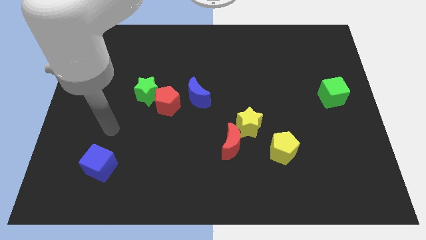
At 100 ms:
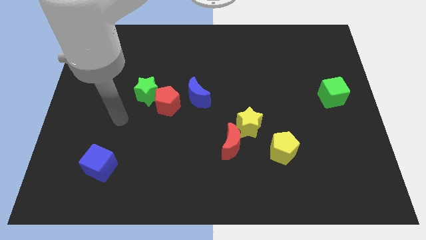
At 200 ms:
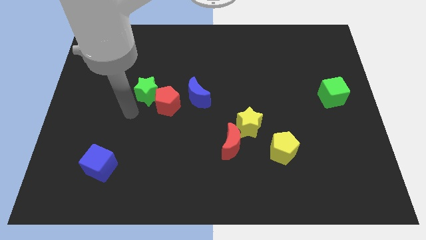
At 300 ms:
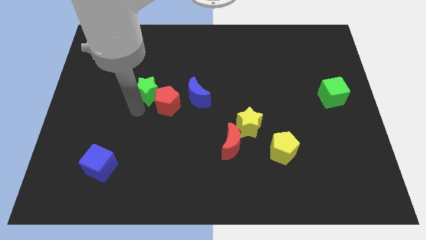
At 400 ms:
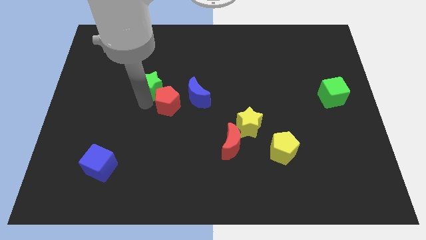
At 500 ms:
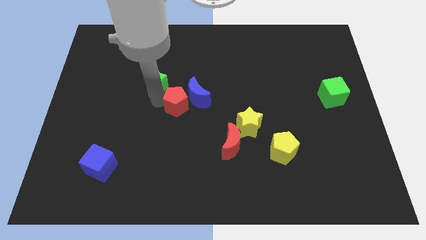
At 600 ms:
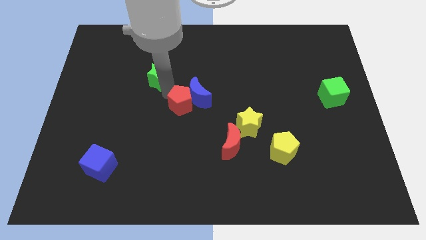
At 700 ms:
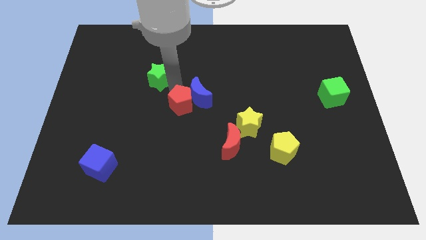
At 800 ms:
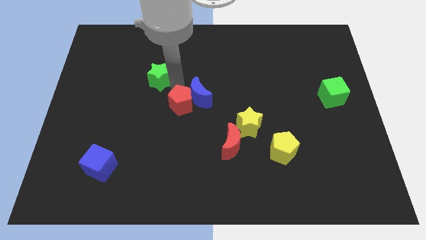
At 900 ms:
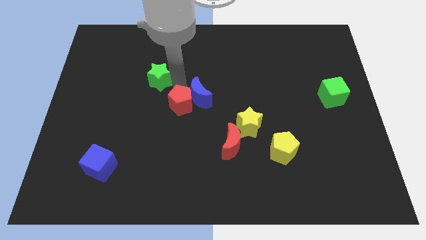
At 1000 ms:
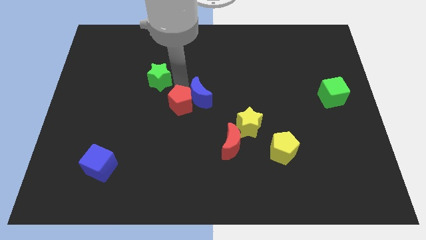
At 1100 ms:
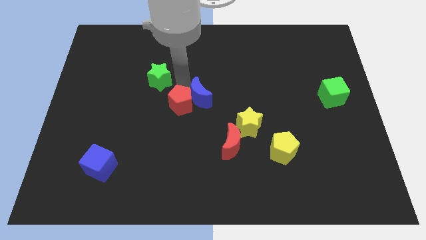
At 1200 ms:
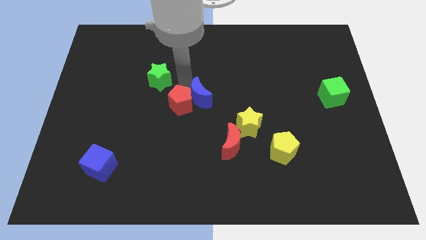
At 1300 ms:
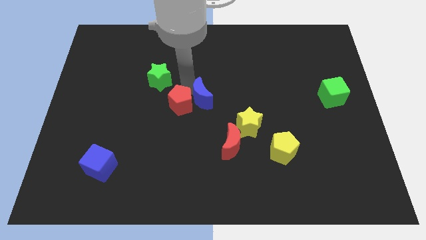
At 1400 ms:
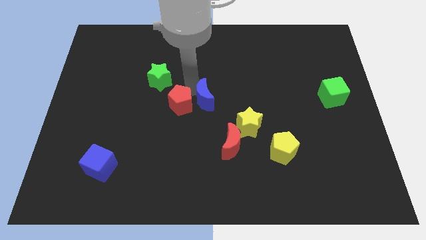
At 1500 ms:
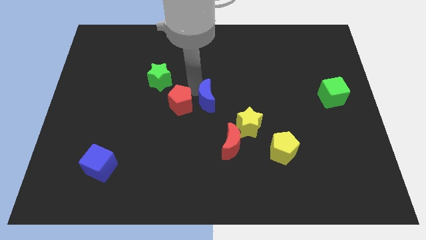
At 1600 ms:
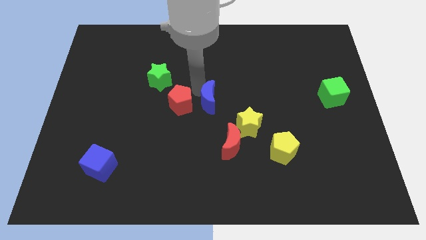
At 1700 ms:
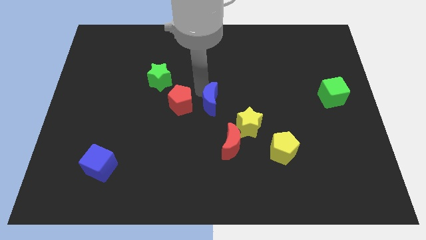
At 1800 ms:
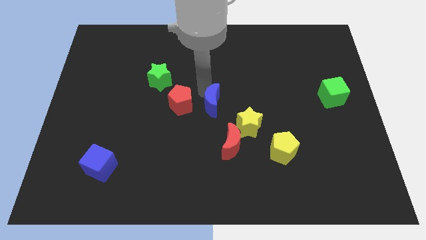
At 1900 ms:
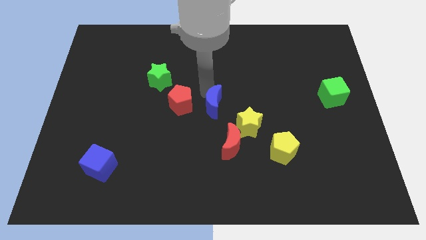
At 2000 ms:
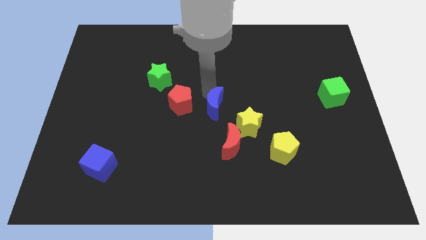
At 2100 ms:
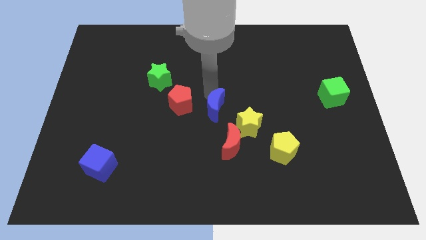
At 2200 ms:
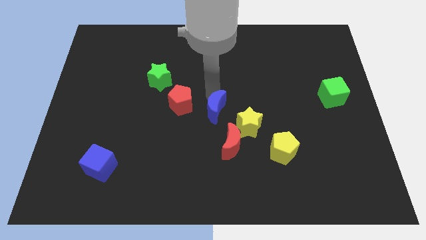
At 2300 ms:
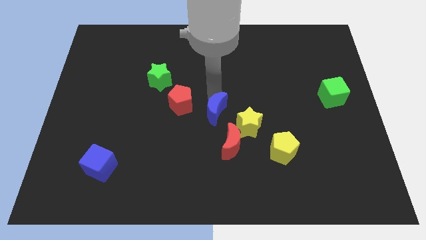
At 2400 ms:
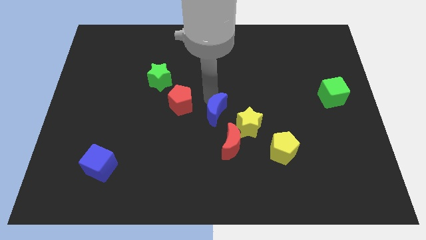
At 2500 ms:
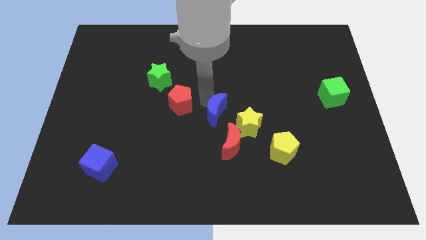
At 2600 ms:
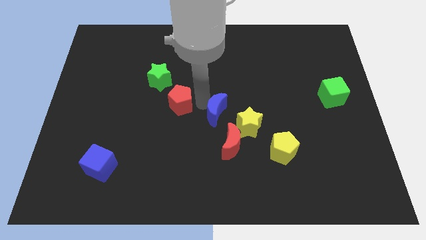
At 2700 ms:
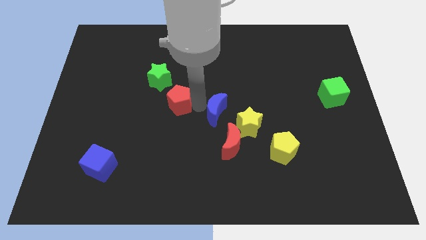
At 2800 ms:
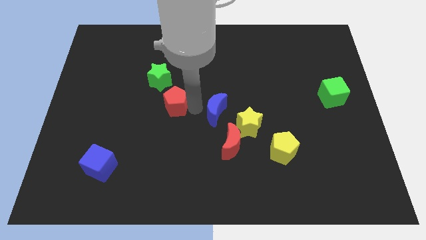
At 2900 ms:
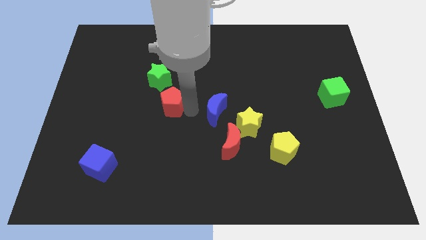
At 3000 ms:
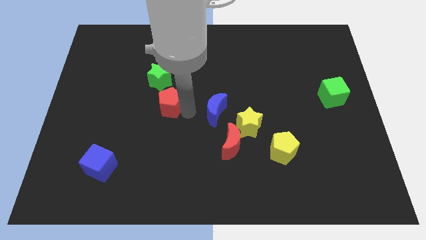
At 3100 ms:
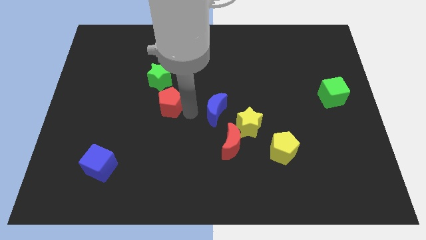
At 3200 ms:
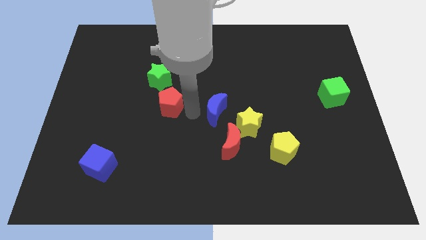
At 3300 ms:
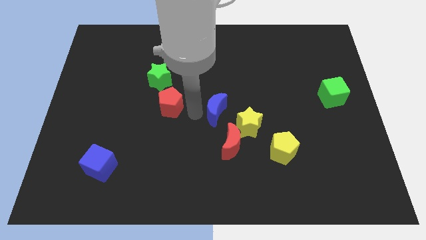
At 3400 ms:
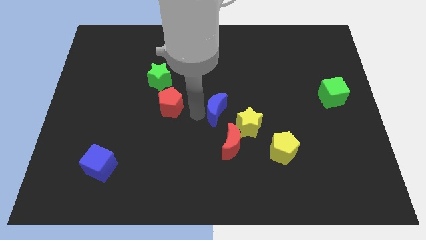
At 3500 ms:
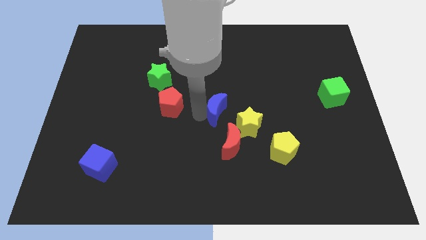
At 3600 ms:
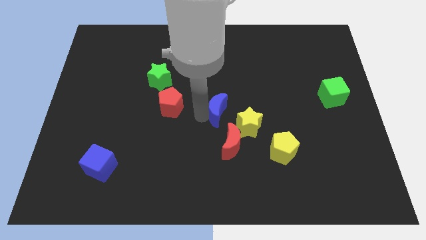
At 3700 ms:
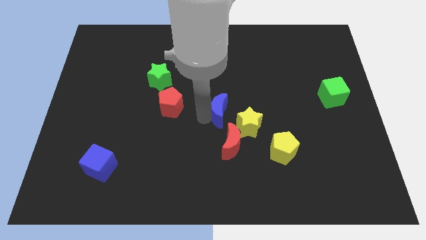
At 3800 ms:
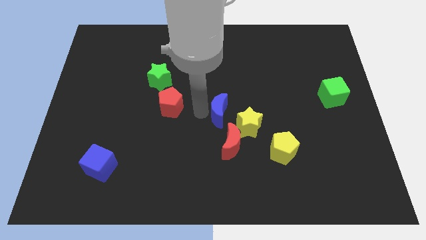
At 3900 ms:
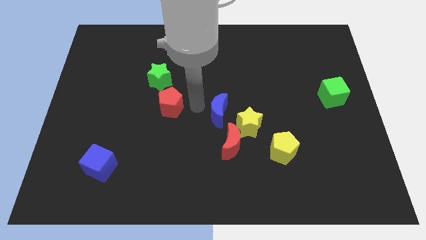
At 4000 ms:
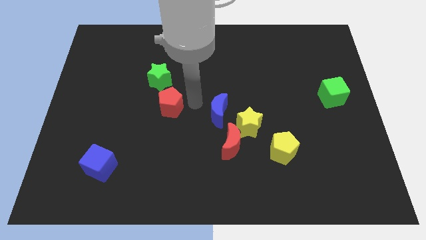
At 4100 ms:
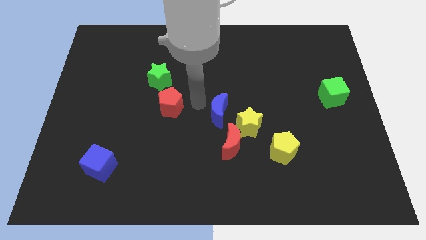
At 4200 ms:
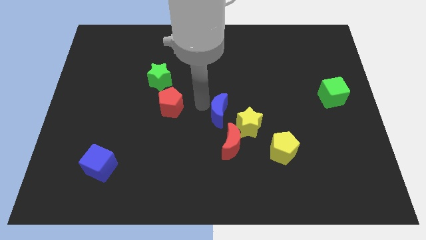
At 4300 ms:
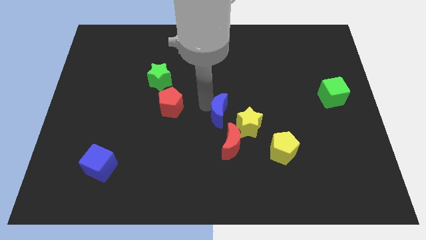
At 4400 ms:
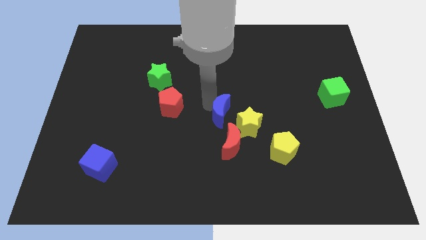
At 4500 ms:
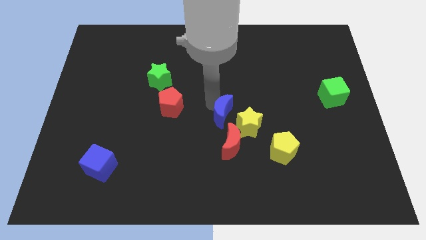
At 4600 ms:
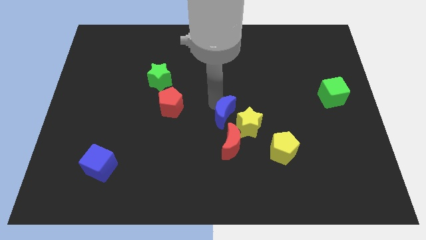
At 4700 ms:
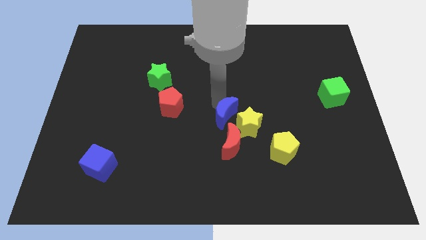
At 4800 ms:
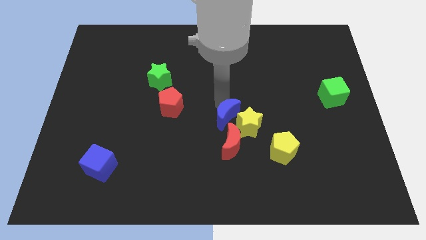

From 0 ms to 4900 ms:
push the blue moon next to the yellow star

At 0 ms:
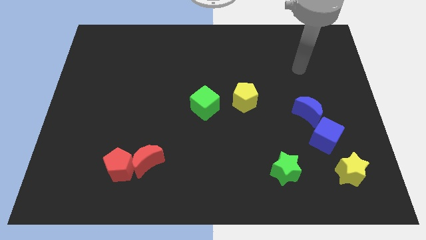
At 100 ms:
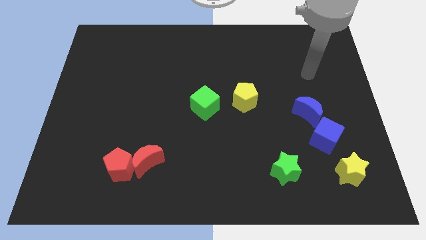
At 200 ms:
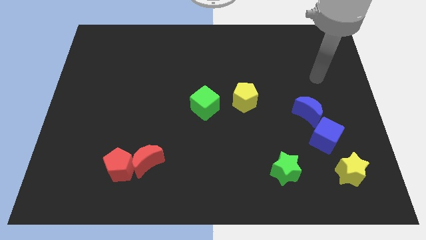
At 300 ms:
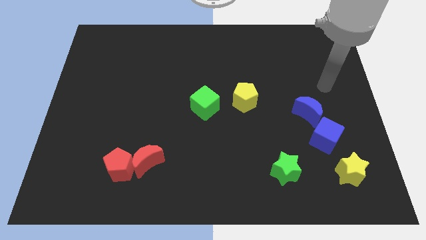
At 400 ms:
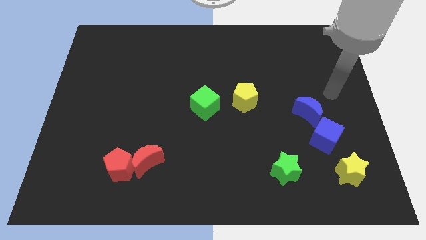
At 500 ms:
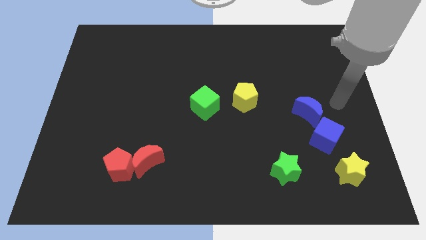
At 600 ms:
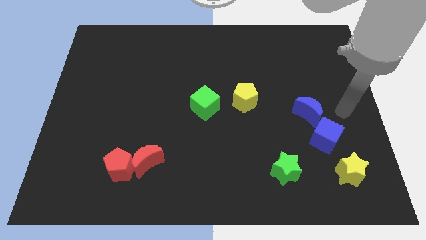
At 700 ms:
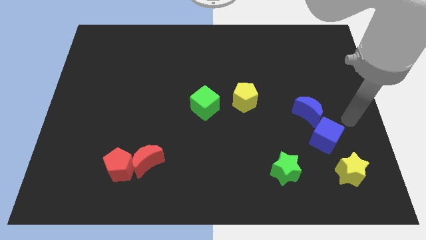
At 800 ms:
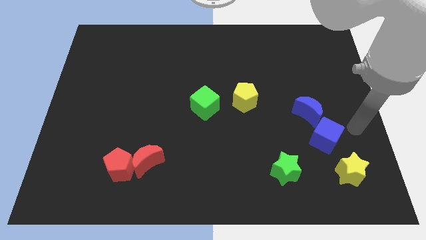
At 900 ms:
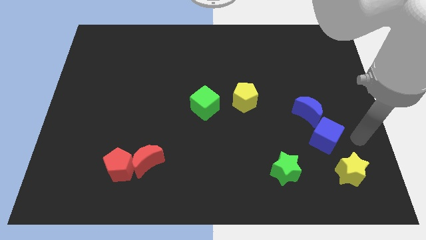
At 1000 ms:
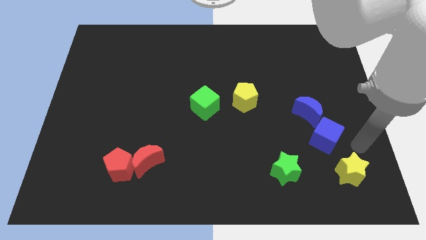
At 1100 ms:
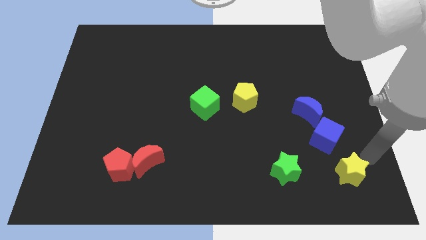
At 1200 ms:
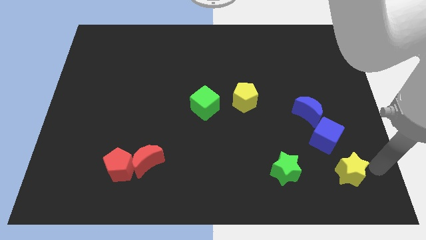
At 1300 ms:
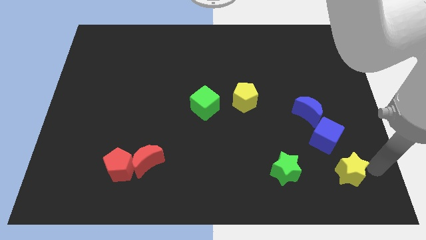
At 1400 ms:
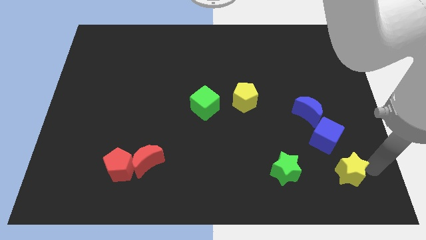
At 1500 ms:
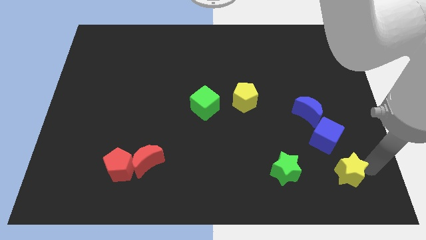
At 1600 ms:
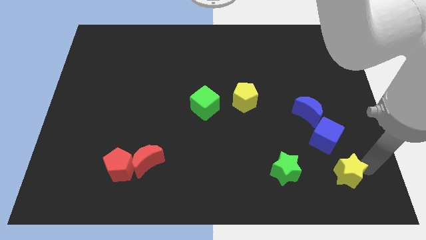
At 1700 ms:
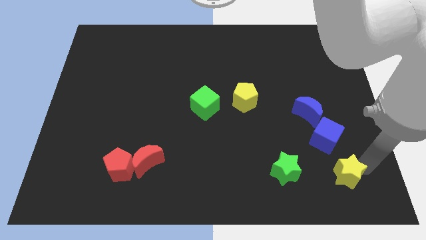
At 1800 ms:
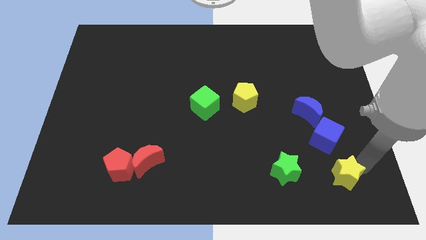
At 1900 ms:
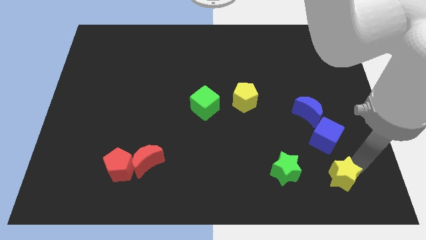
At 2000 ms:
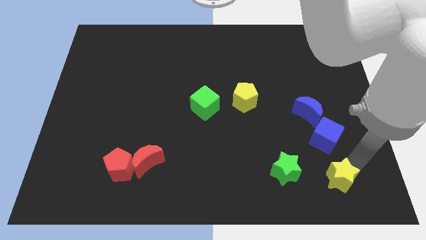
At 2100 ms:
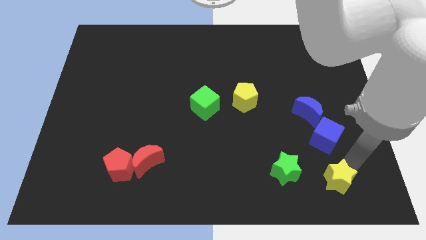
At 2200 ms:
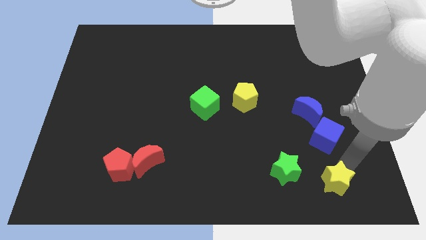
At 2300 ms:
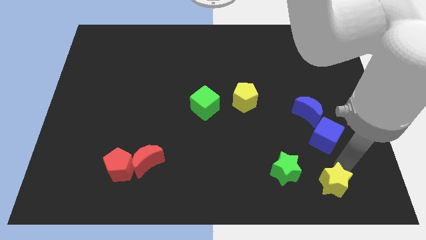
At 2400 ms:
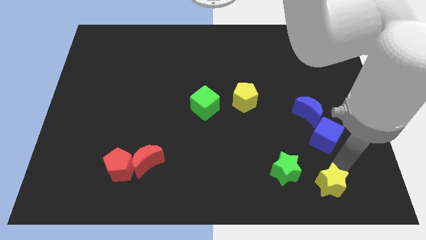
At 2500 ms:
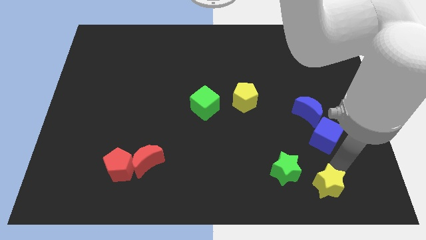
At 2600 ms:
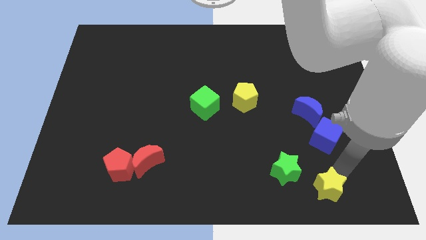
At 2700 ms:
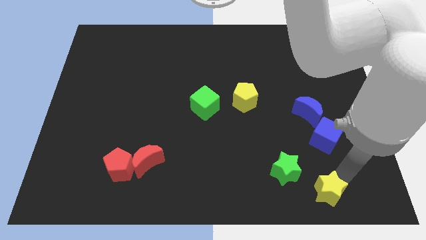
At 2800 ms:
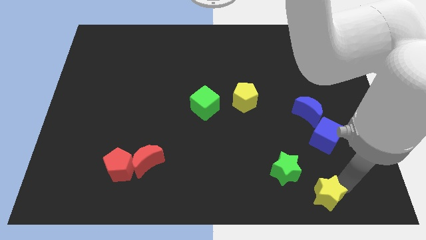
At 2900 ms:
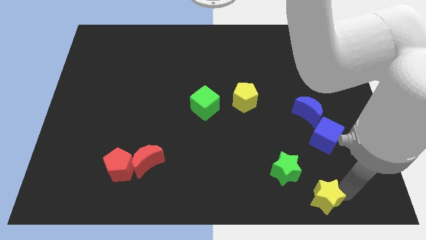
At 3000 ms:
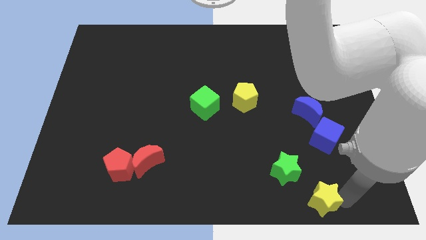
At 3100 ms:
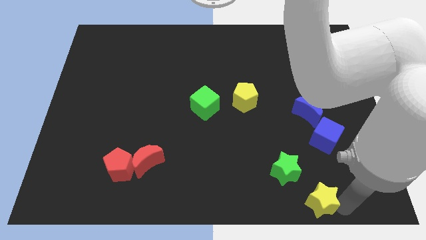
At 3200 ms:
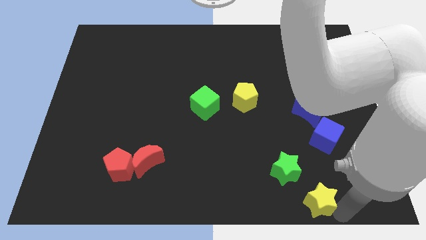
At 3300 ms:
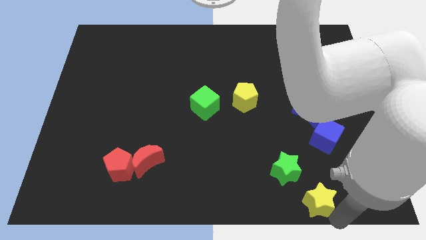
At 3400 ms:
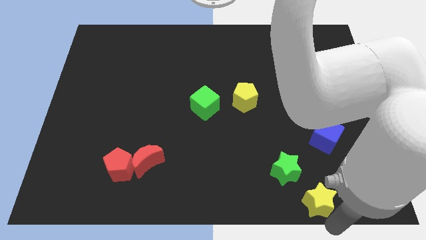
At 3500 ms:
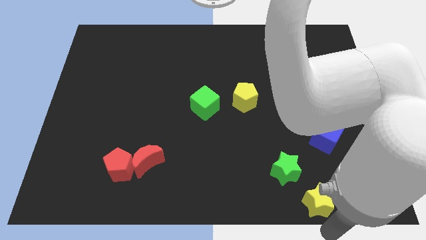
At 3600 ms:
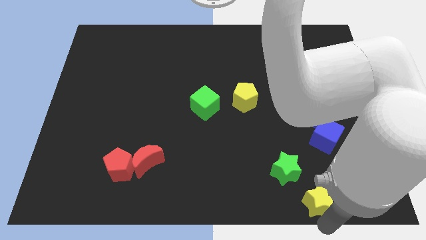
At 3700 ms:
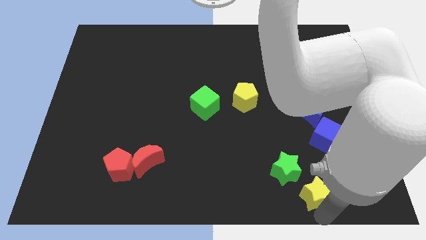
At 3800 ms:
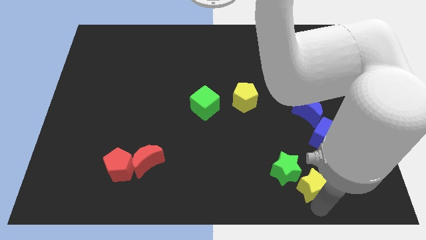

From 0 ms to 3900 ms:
move the yellow star next to the green star
